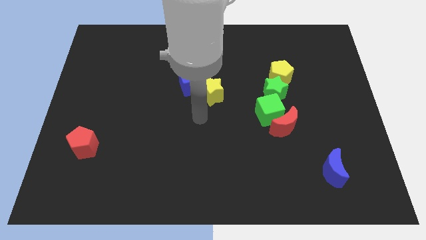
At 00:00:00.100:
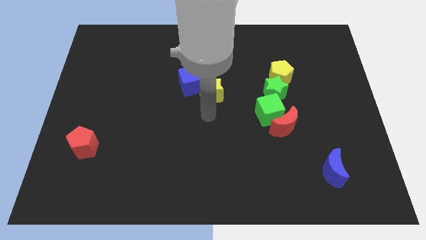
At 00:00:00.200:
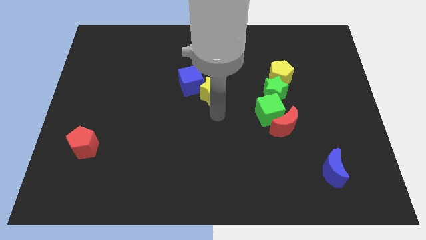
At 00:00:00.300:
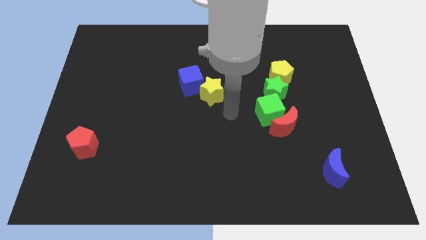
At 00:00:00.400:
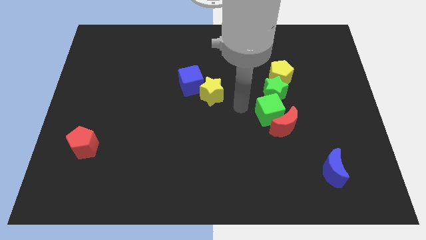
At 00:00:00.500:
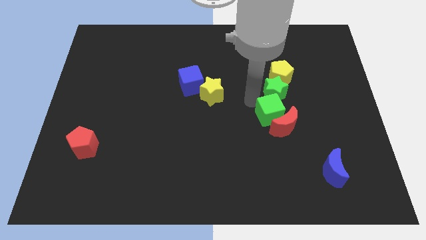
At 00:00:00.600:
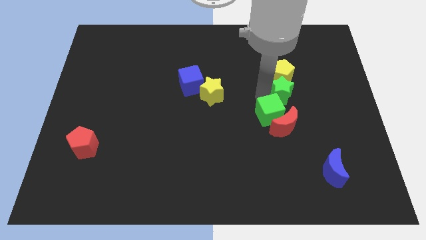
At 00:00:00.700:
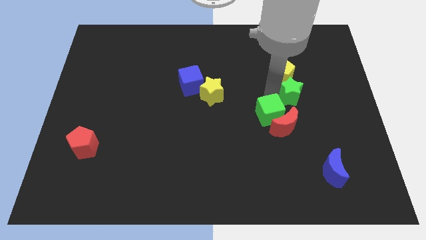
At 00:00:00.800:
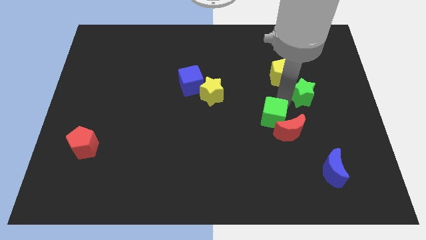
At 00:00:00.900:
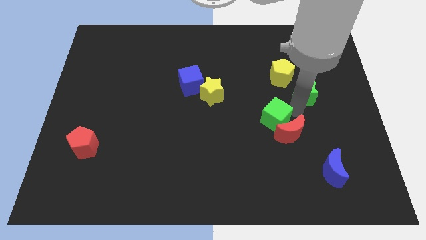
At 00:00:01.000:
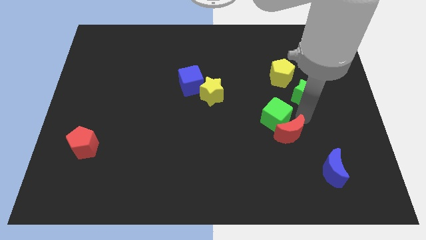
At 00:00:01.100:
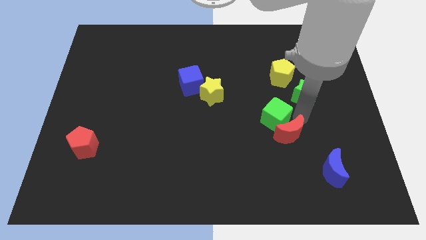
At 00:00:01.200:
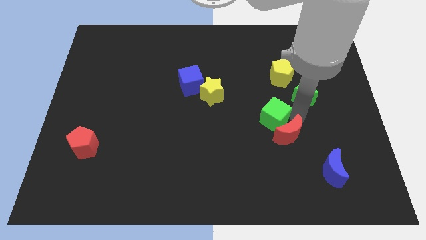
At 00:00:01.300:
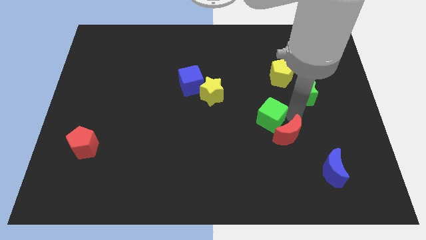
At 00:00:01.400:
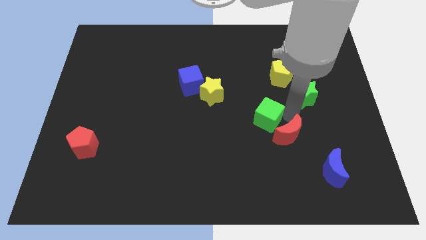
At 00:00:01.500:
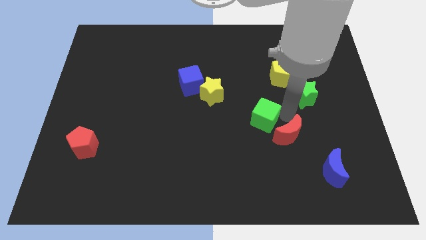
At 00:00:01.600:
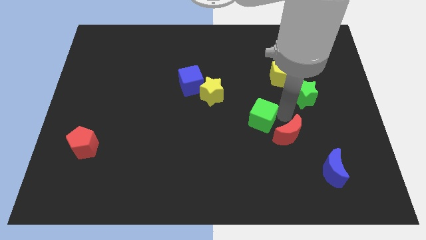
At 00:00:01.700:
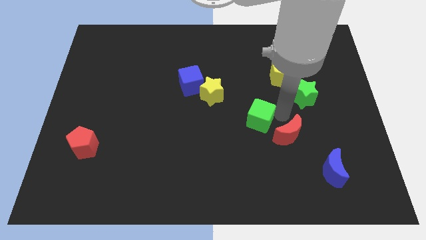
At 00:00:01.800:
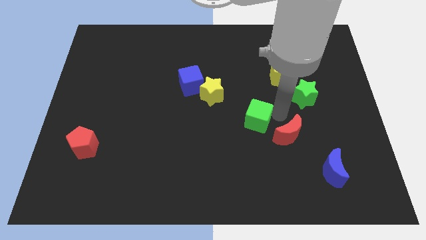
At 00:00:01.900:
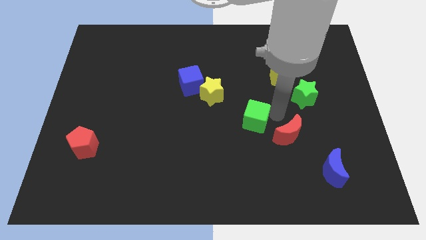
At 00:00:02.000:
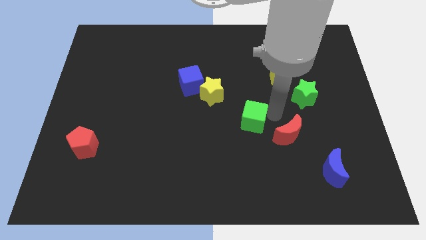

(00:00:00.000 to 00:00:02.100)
move the green cube away from the red moon and green star

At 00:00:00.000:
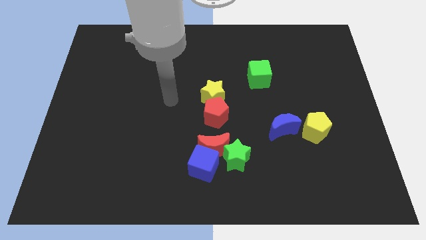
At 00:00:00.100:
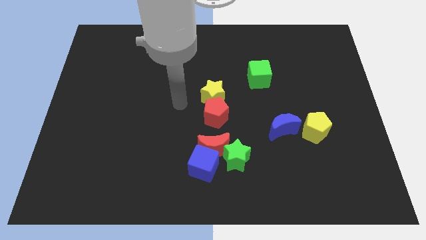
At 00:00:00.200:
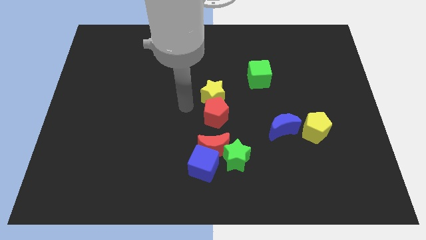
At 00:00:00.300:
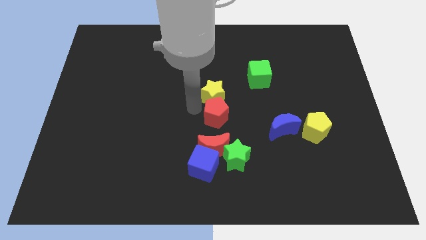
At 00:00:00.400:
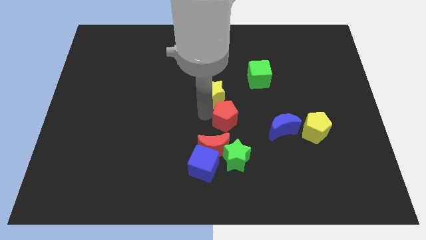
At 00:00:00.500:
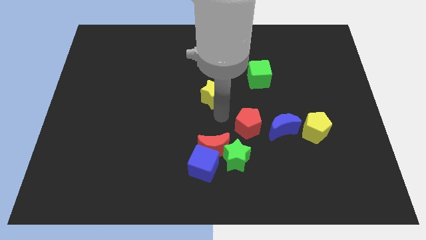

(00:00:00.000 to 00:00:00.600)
pull the yellow star apart from the red pentagon

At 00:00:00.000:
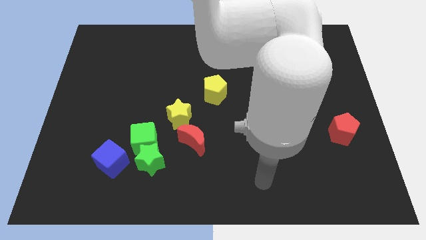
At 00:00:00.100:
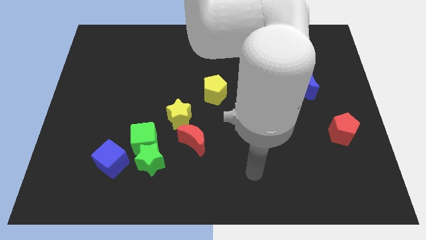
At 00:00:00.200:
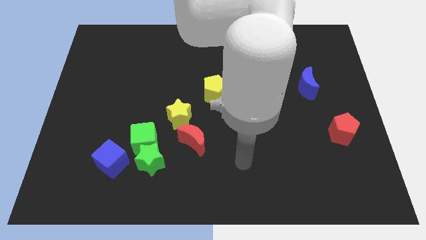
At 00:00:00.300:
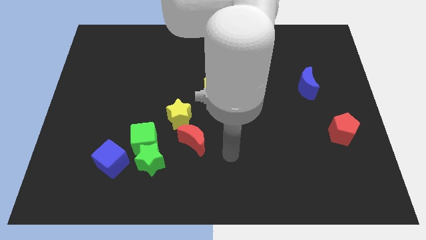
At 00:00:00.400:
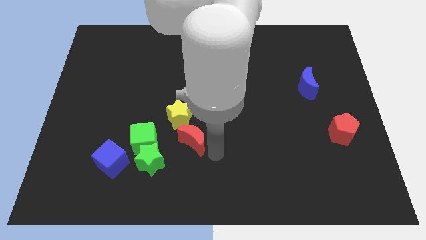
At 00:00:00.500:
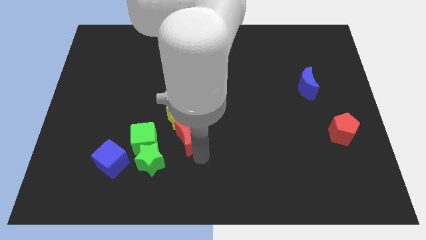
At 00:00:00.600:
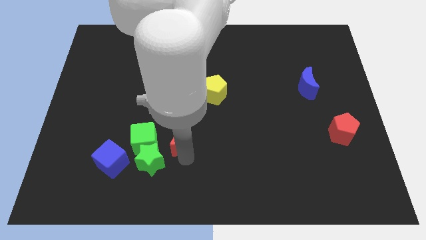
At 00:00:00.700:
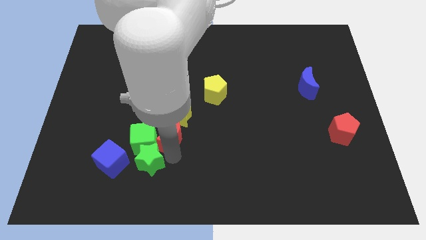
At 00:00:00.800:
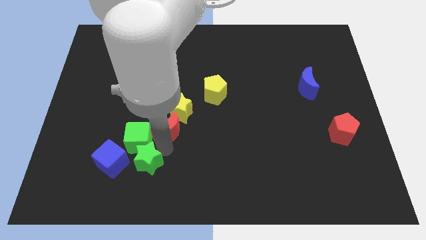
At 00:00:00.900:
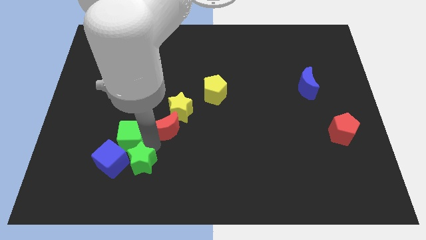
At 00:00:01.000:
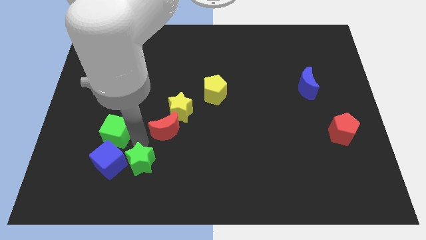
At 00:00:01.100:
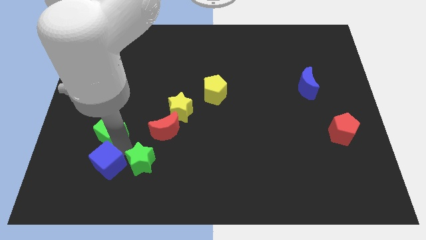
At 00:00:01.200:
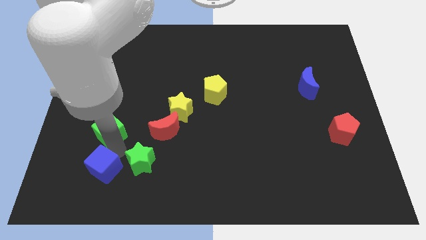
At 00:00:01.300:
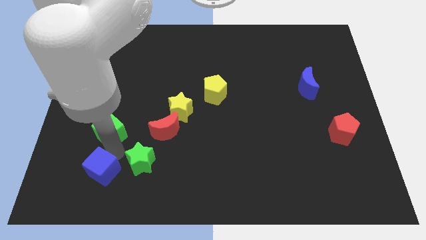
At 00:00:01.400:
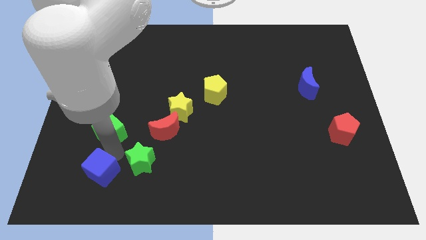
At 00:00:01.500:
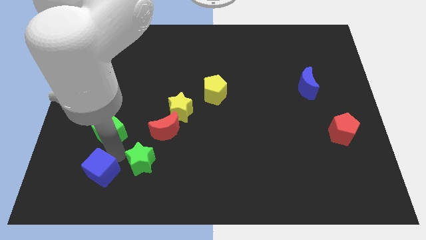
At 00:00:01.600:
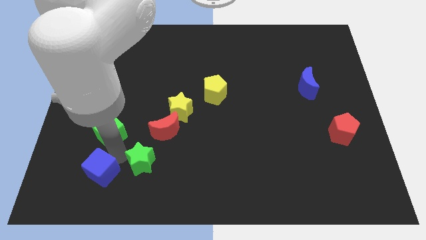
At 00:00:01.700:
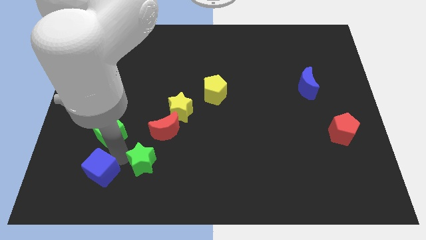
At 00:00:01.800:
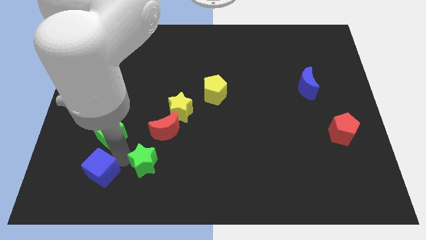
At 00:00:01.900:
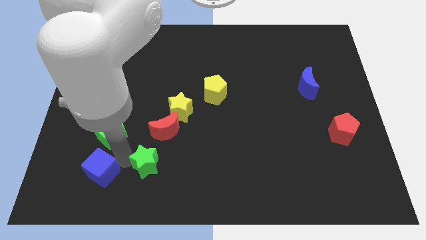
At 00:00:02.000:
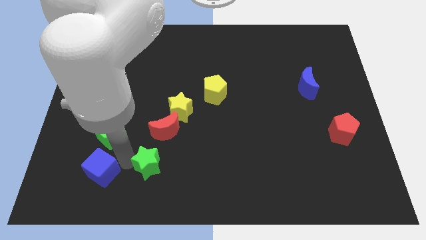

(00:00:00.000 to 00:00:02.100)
move the green star away from the green cube and blue cube

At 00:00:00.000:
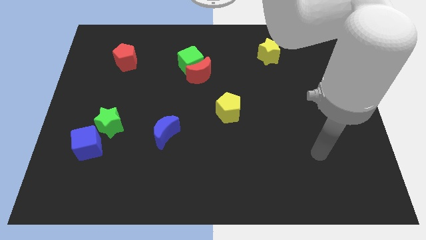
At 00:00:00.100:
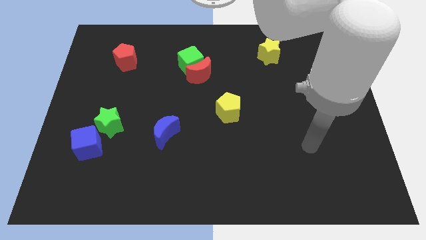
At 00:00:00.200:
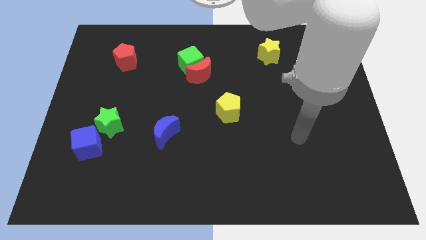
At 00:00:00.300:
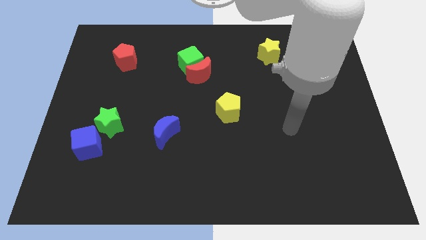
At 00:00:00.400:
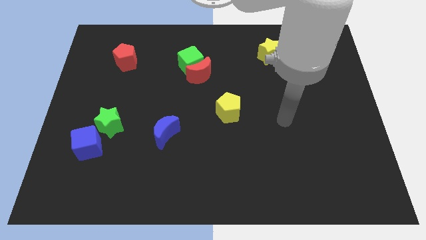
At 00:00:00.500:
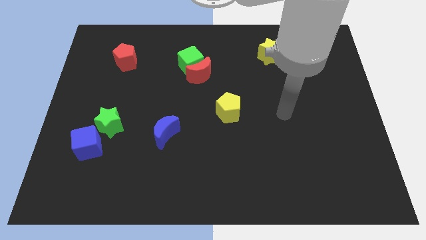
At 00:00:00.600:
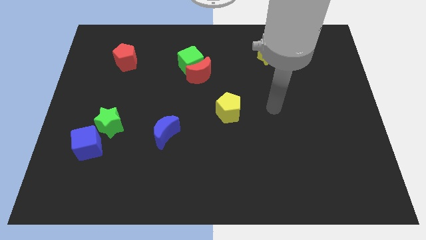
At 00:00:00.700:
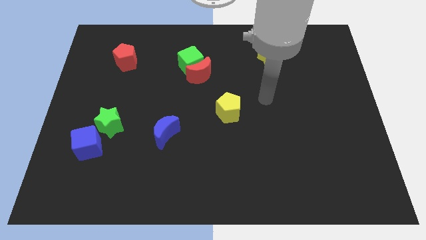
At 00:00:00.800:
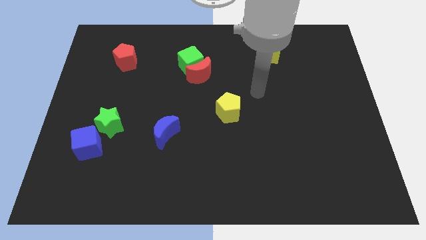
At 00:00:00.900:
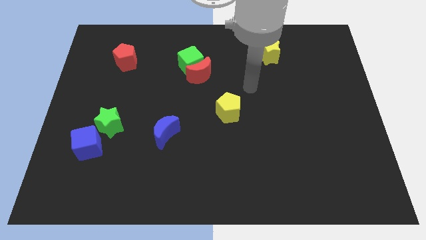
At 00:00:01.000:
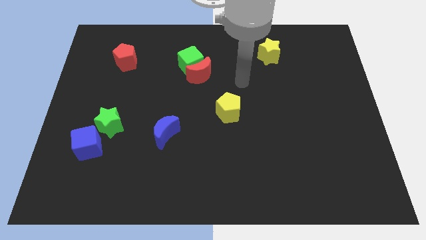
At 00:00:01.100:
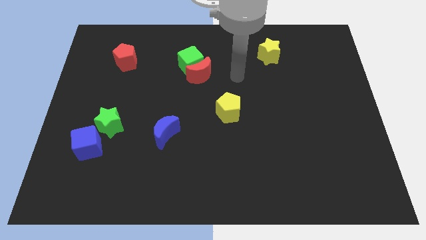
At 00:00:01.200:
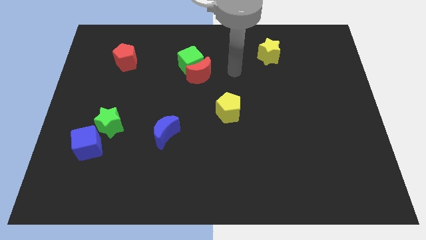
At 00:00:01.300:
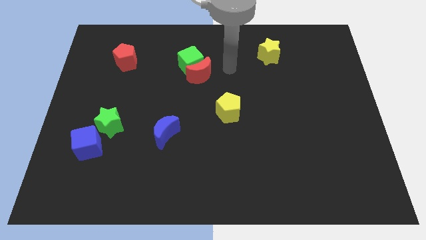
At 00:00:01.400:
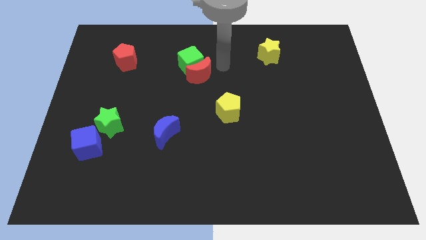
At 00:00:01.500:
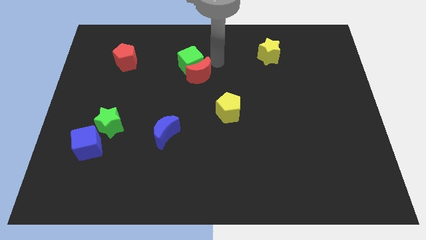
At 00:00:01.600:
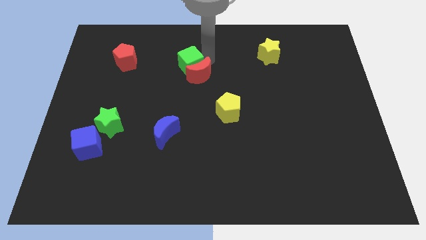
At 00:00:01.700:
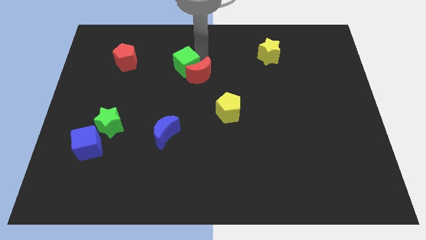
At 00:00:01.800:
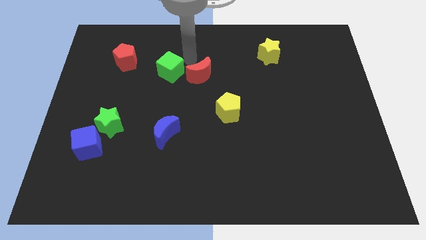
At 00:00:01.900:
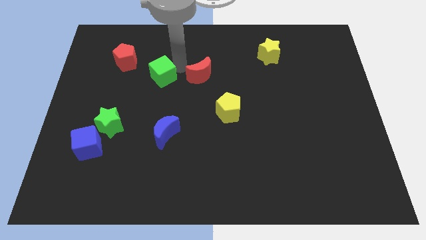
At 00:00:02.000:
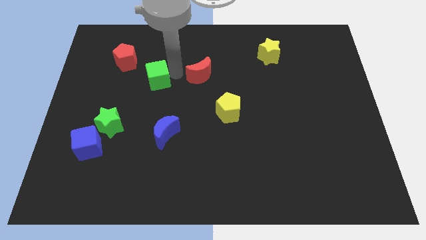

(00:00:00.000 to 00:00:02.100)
pull the red moon apart from the green cube

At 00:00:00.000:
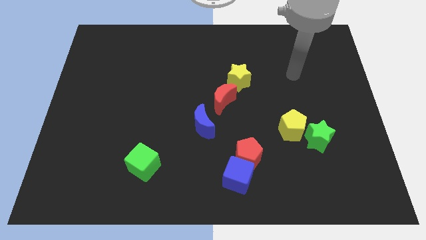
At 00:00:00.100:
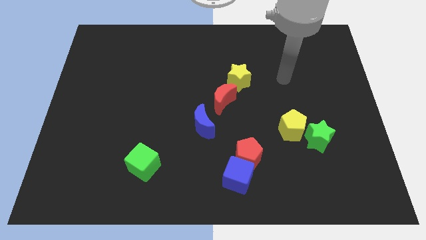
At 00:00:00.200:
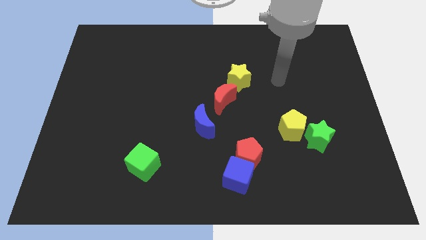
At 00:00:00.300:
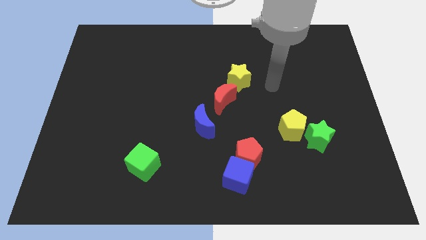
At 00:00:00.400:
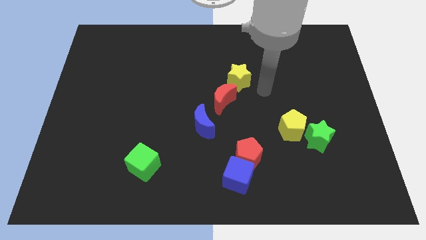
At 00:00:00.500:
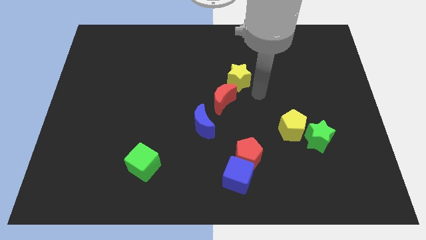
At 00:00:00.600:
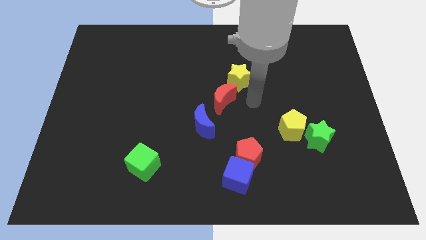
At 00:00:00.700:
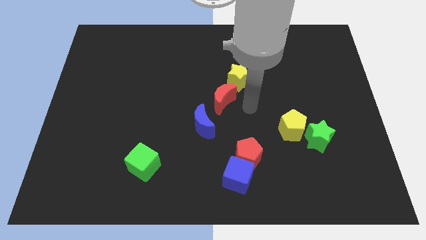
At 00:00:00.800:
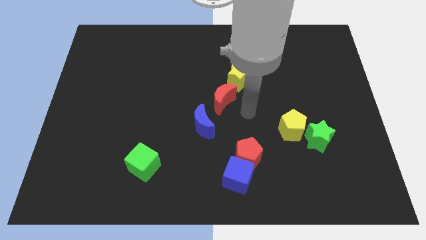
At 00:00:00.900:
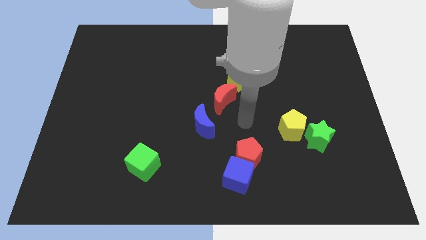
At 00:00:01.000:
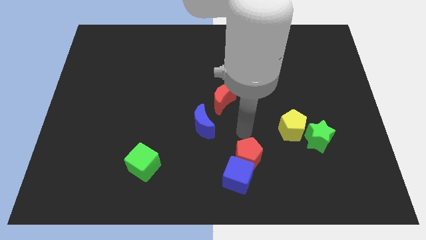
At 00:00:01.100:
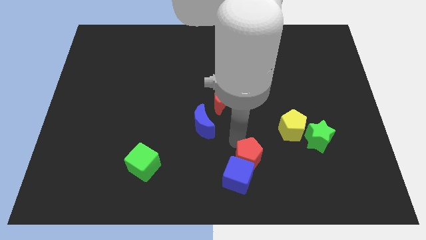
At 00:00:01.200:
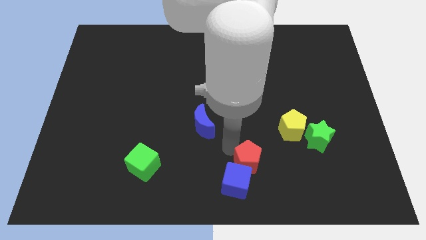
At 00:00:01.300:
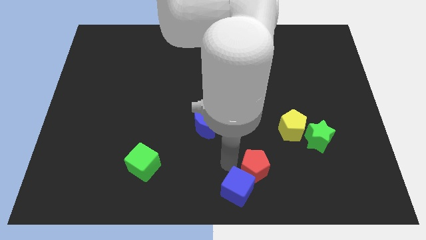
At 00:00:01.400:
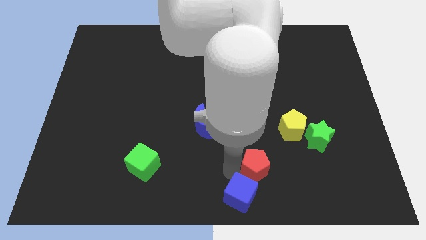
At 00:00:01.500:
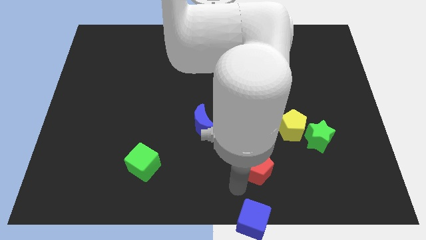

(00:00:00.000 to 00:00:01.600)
move the red pentagon away from the blue cube

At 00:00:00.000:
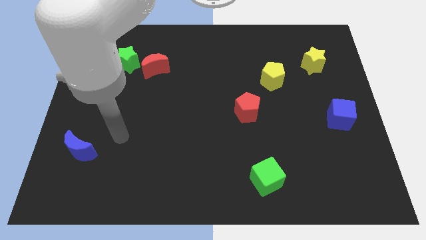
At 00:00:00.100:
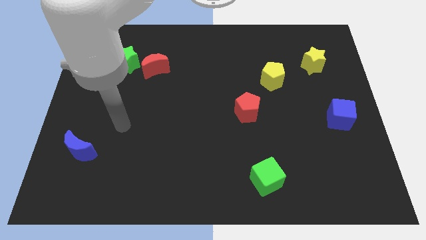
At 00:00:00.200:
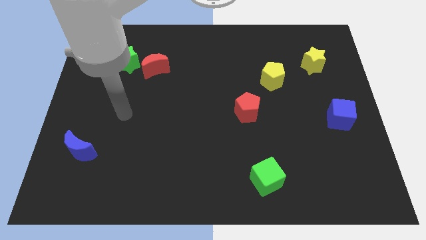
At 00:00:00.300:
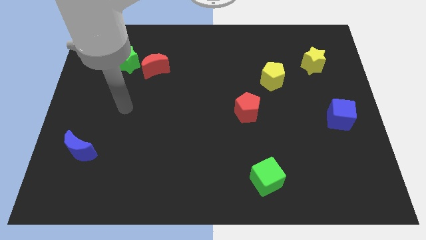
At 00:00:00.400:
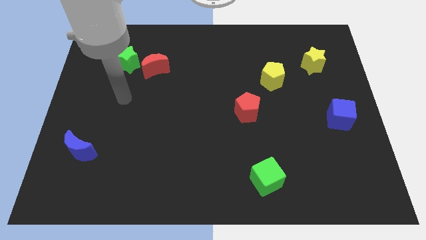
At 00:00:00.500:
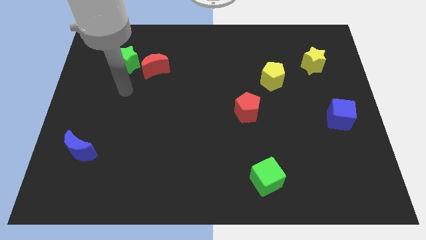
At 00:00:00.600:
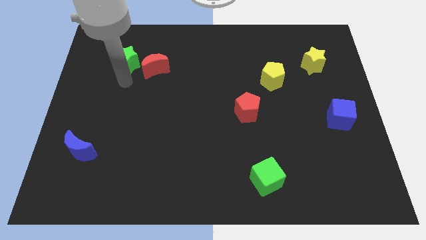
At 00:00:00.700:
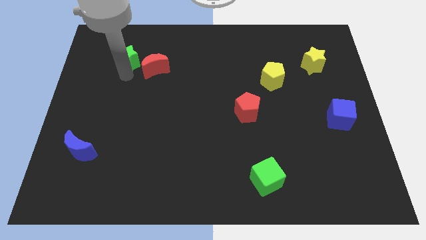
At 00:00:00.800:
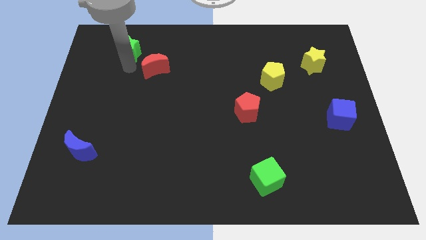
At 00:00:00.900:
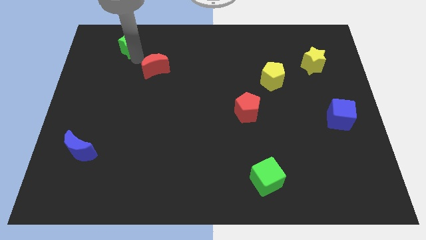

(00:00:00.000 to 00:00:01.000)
separate the red moon from the green star
